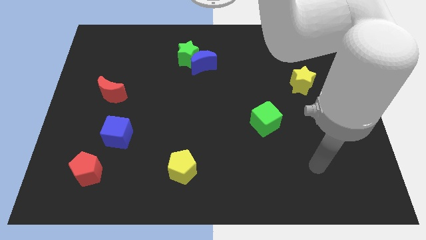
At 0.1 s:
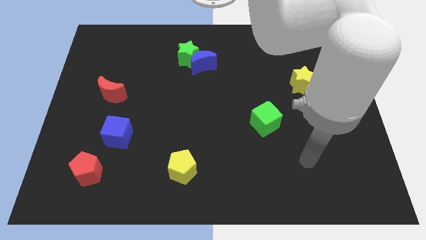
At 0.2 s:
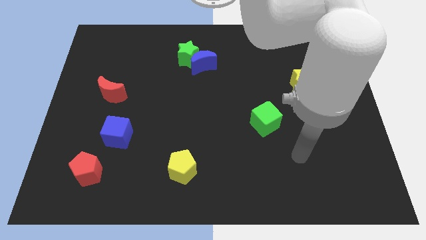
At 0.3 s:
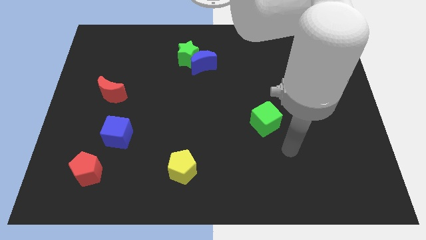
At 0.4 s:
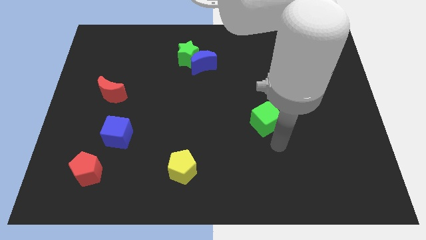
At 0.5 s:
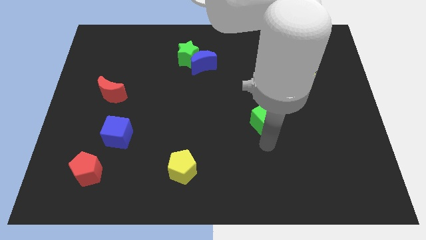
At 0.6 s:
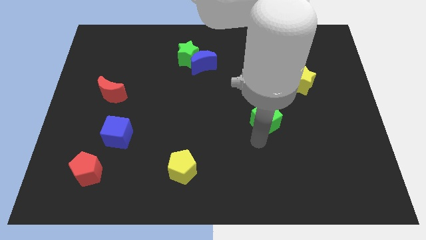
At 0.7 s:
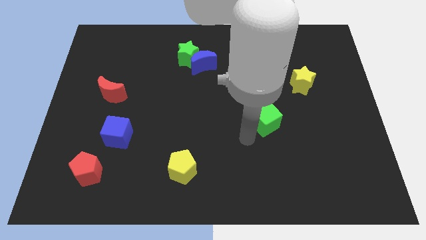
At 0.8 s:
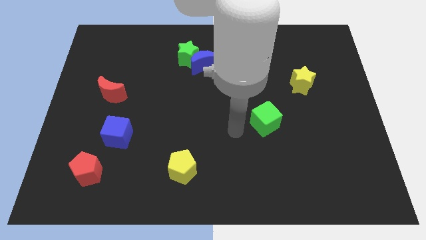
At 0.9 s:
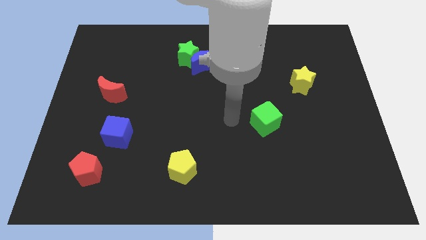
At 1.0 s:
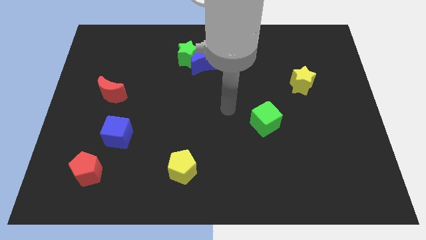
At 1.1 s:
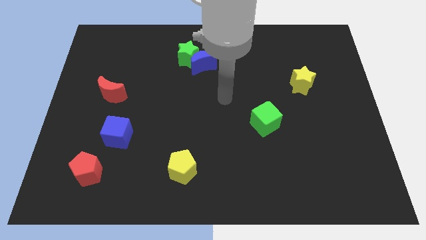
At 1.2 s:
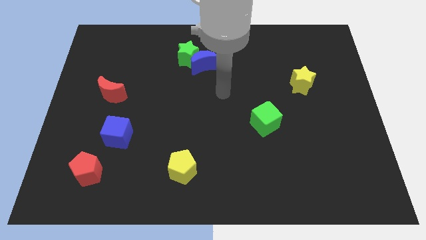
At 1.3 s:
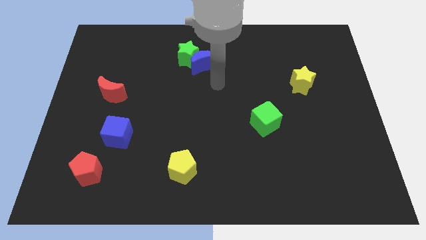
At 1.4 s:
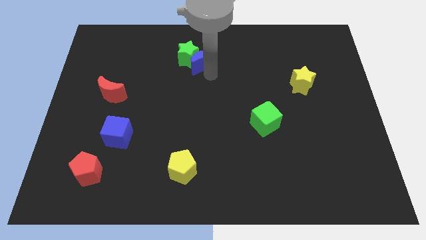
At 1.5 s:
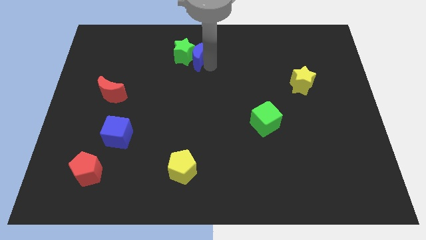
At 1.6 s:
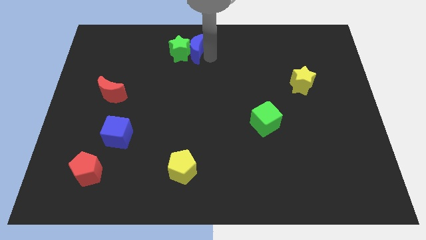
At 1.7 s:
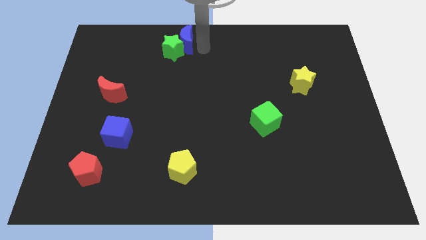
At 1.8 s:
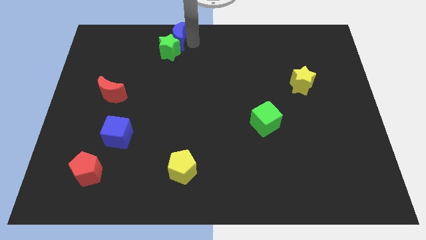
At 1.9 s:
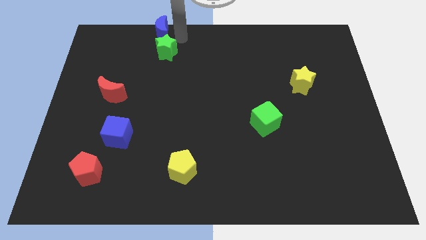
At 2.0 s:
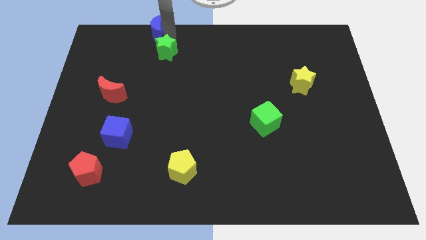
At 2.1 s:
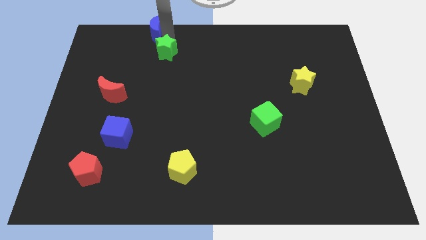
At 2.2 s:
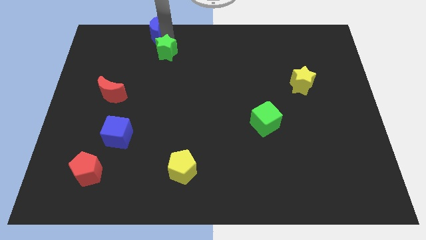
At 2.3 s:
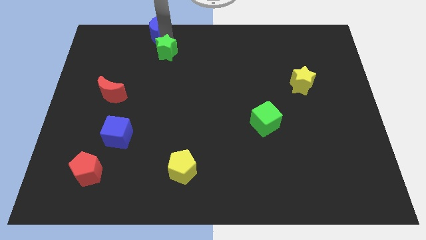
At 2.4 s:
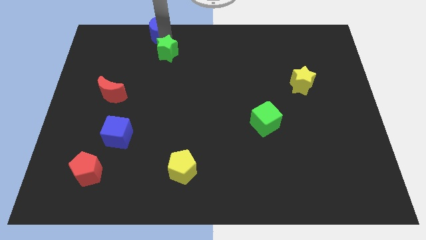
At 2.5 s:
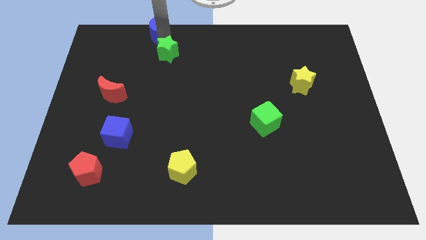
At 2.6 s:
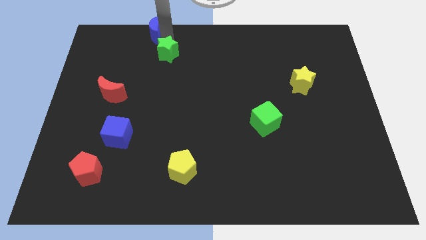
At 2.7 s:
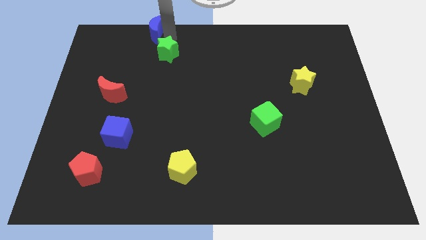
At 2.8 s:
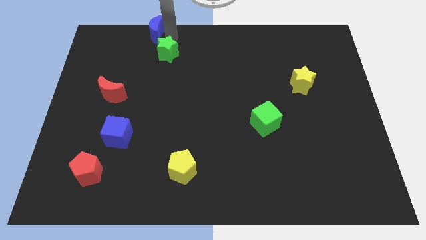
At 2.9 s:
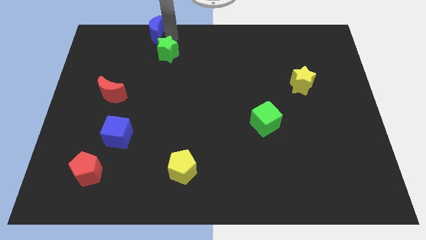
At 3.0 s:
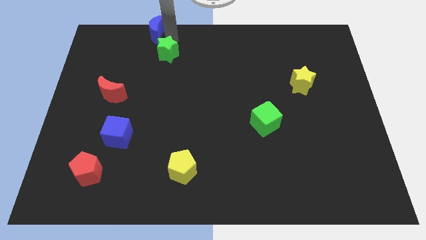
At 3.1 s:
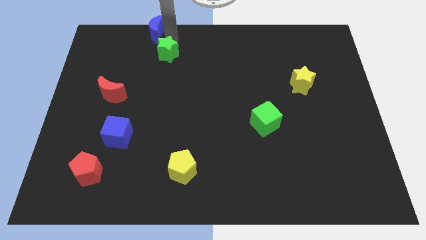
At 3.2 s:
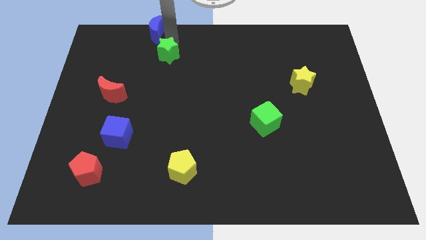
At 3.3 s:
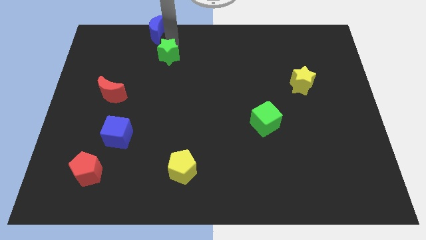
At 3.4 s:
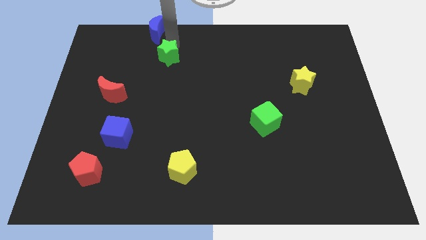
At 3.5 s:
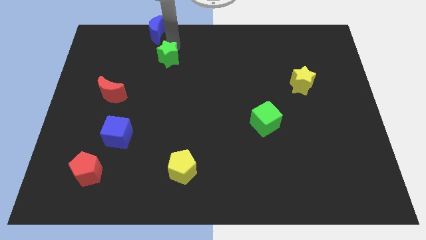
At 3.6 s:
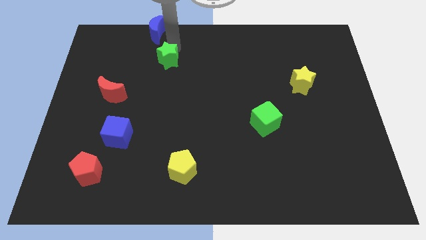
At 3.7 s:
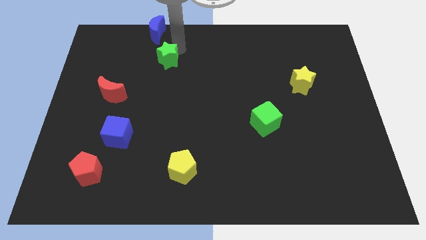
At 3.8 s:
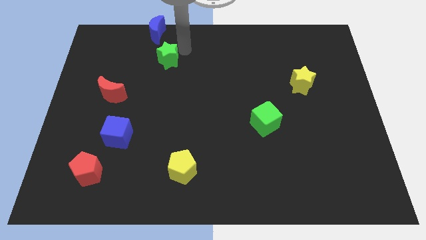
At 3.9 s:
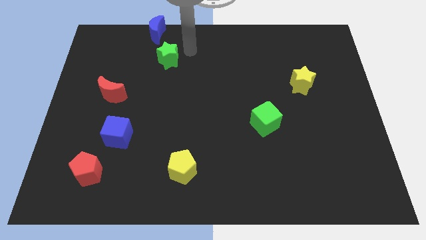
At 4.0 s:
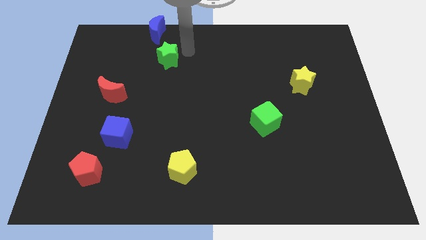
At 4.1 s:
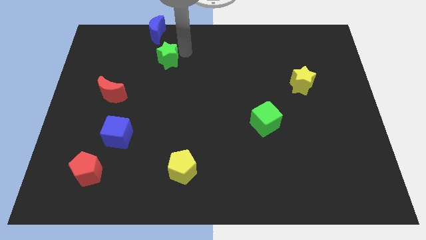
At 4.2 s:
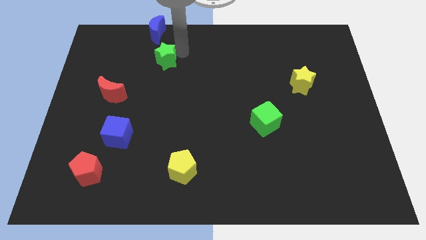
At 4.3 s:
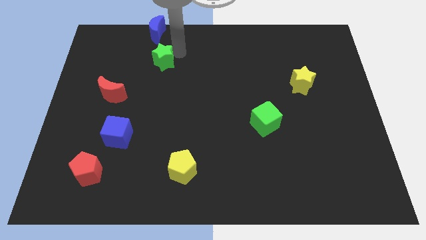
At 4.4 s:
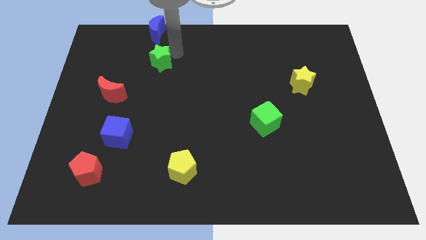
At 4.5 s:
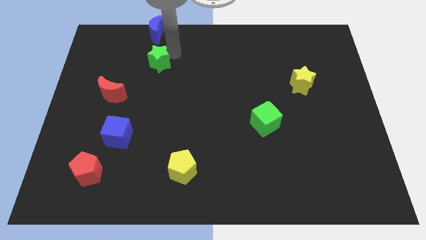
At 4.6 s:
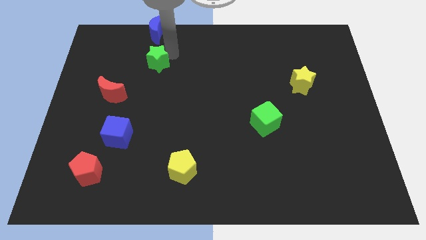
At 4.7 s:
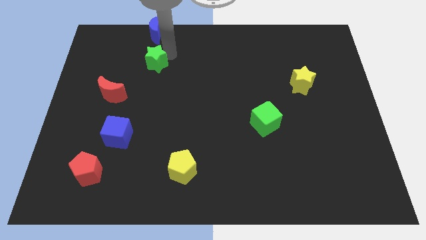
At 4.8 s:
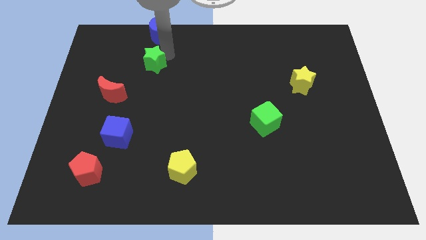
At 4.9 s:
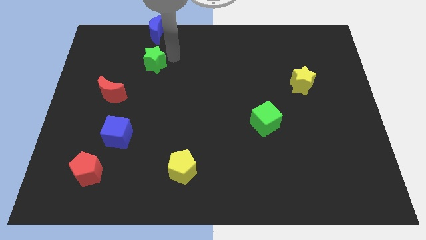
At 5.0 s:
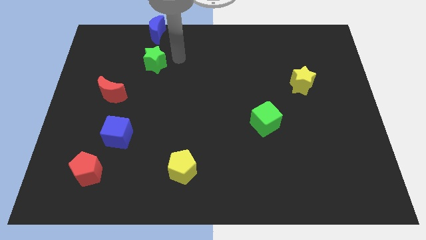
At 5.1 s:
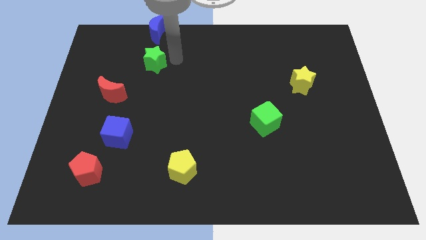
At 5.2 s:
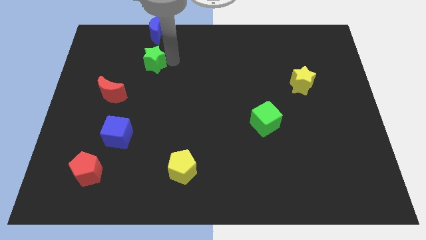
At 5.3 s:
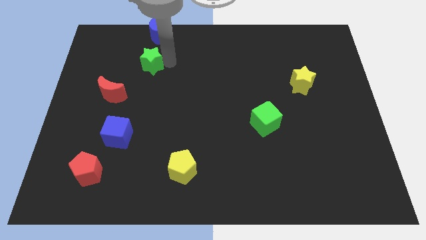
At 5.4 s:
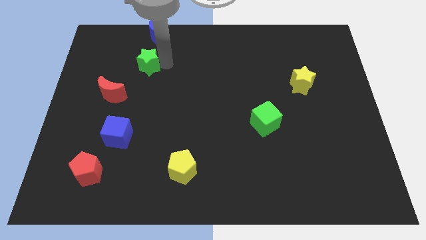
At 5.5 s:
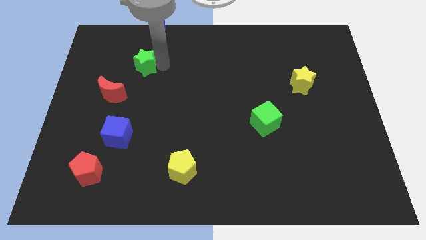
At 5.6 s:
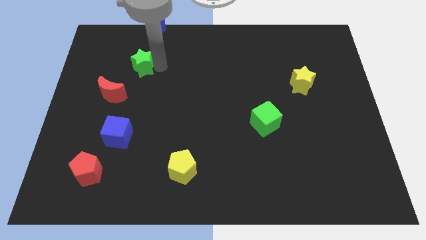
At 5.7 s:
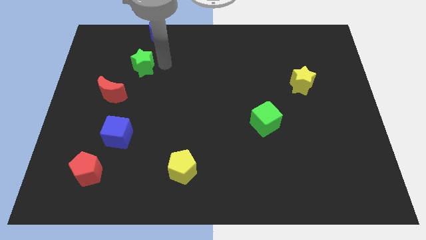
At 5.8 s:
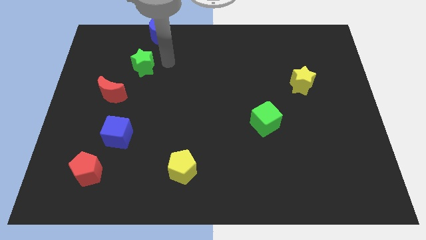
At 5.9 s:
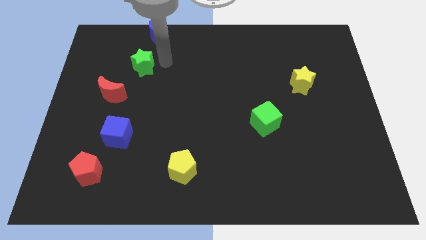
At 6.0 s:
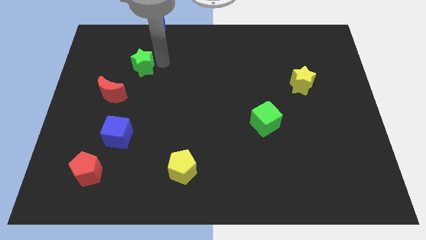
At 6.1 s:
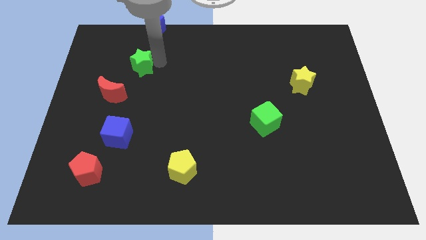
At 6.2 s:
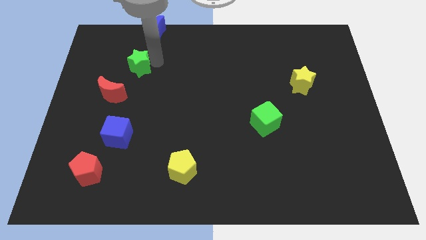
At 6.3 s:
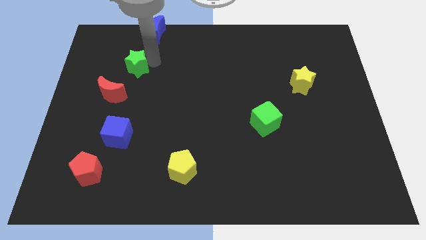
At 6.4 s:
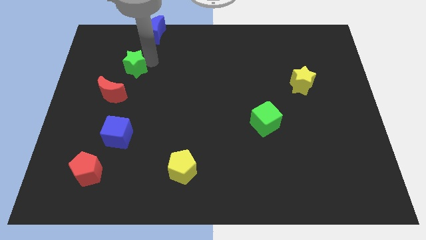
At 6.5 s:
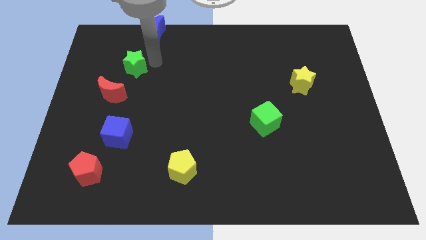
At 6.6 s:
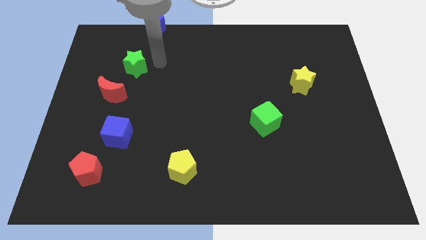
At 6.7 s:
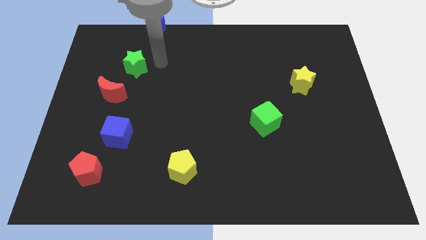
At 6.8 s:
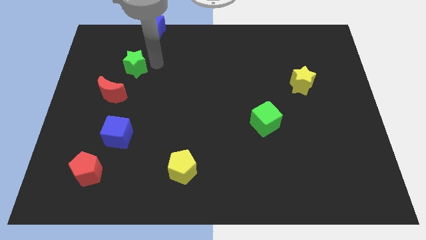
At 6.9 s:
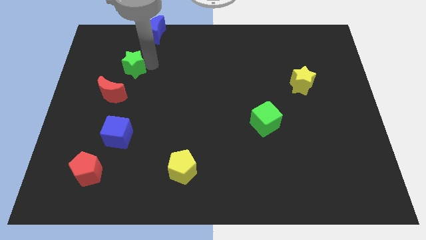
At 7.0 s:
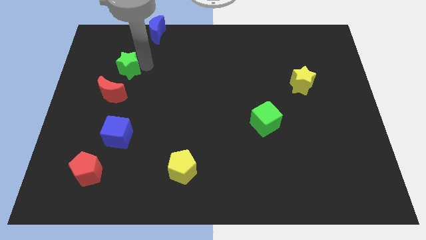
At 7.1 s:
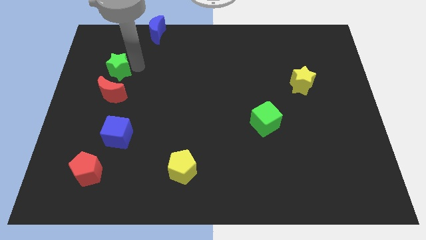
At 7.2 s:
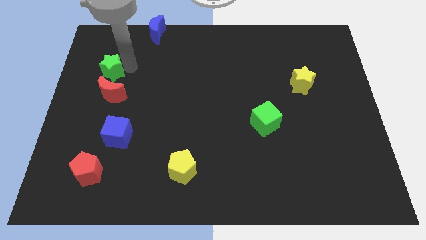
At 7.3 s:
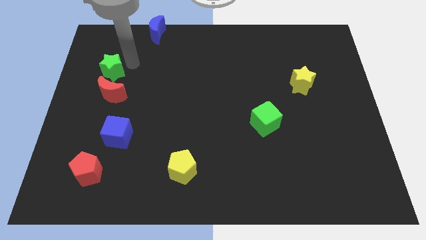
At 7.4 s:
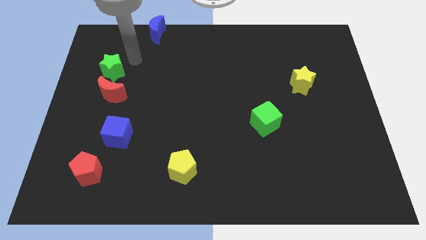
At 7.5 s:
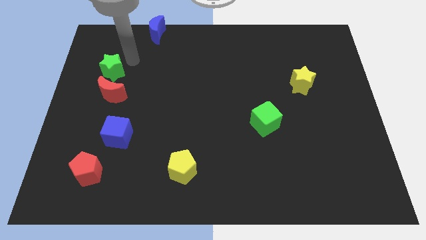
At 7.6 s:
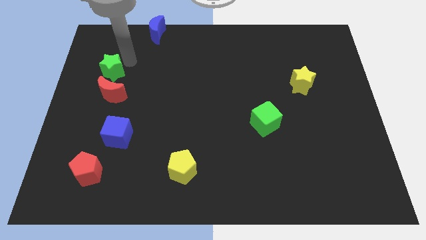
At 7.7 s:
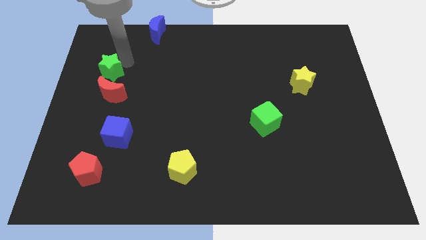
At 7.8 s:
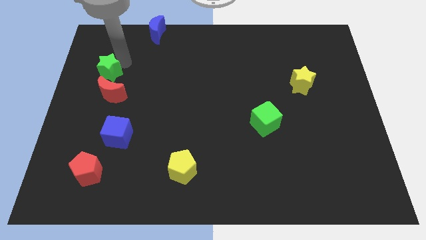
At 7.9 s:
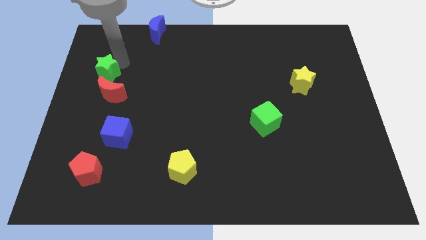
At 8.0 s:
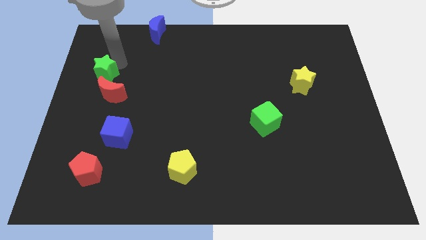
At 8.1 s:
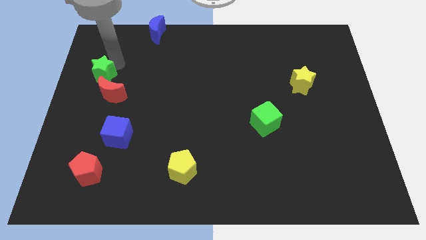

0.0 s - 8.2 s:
move the green star to the center left
